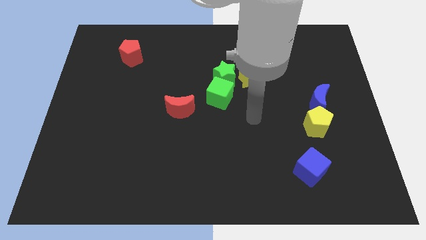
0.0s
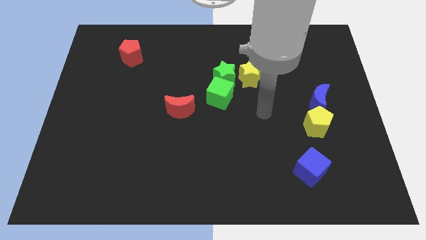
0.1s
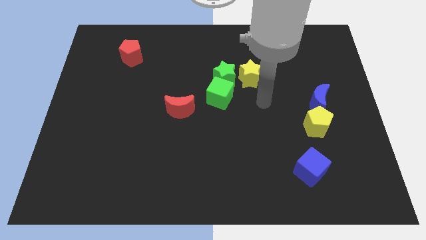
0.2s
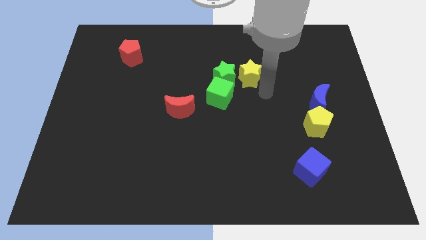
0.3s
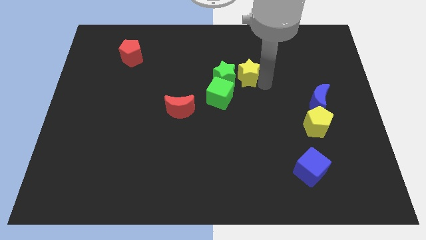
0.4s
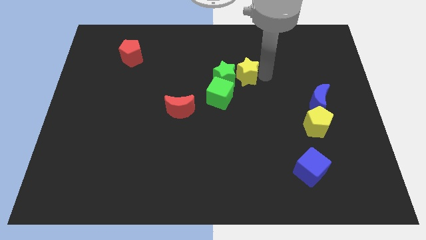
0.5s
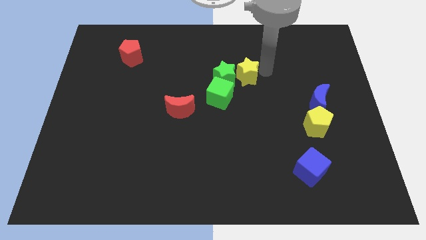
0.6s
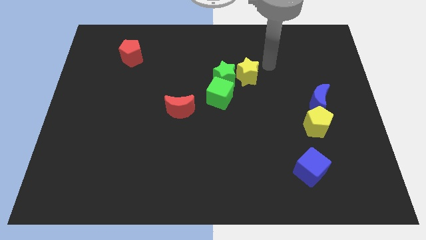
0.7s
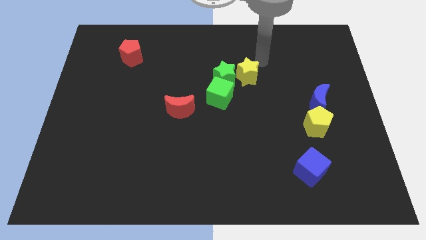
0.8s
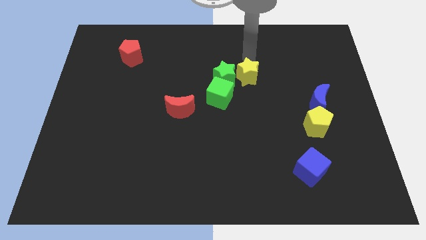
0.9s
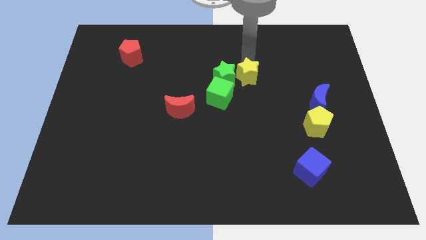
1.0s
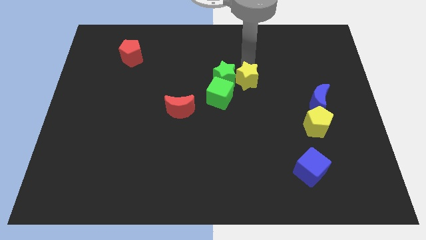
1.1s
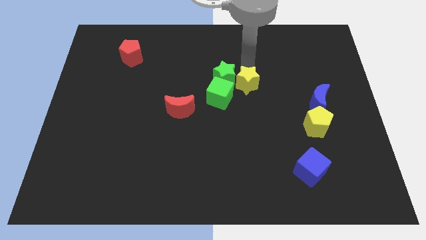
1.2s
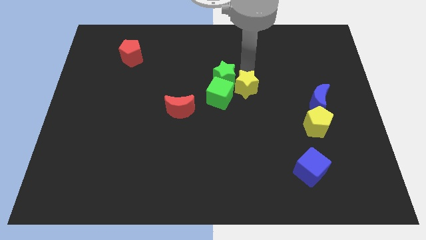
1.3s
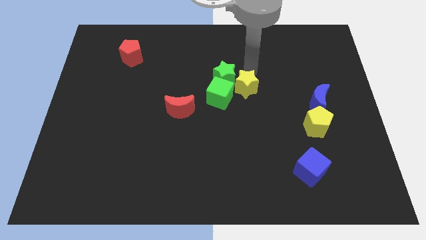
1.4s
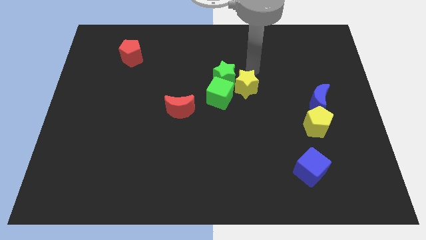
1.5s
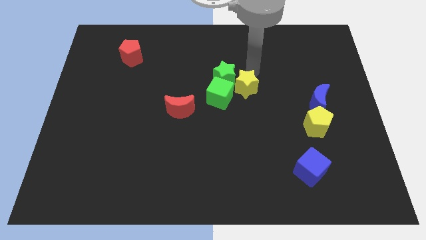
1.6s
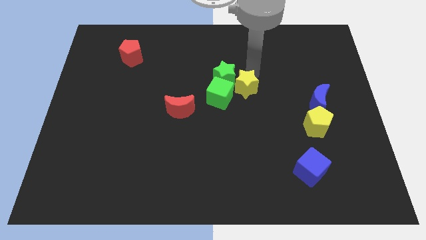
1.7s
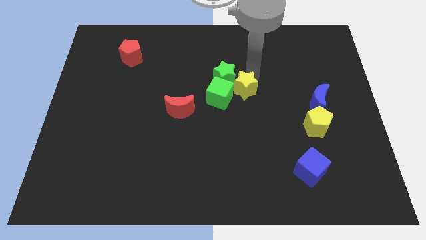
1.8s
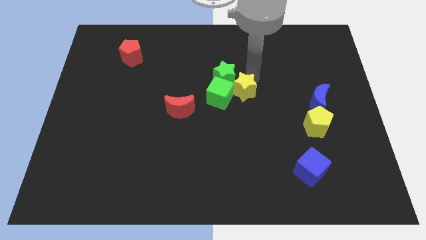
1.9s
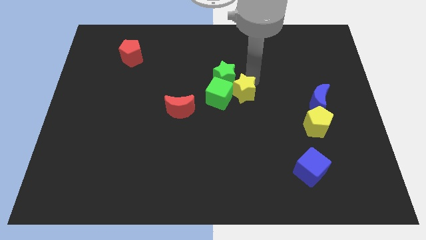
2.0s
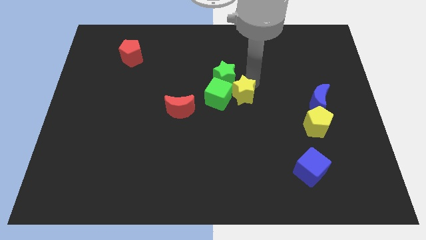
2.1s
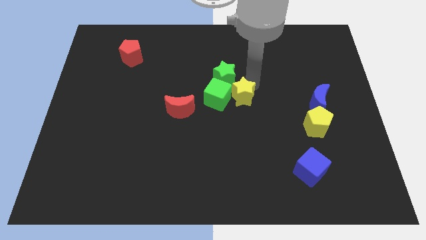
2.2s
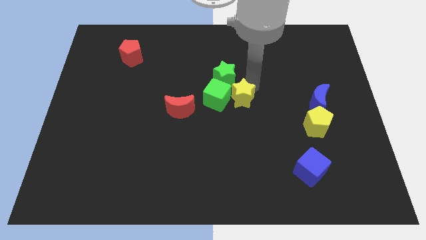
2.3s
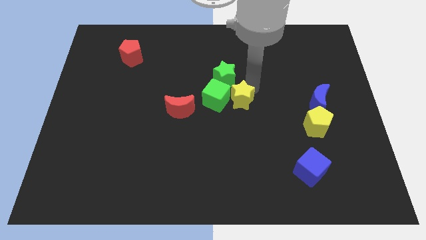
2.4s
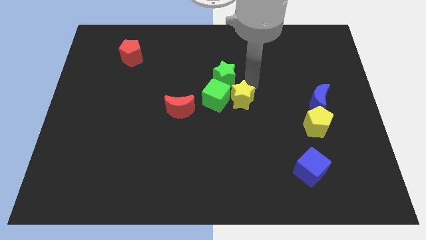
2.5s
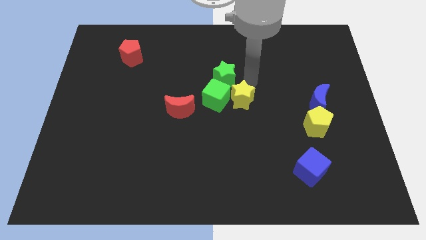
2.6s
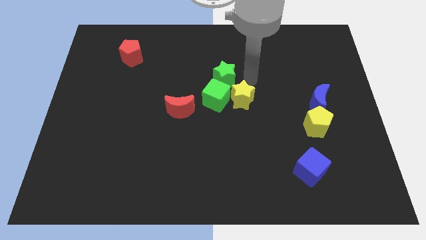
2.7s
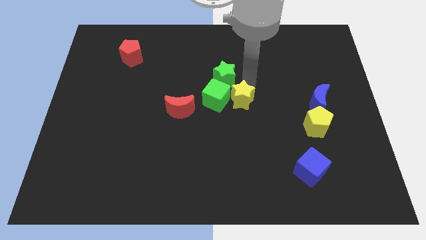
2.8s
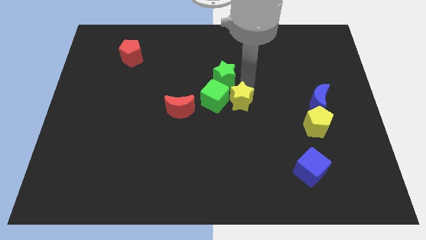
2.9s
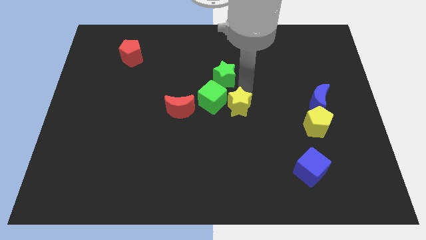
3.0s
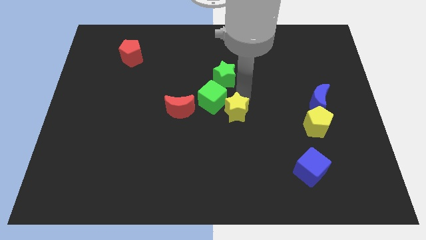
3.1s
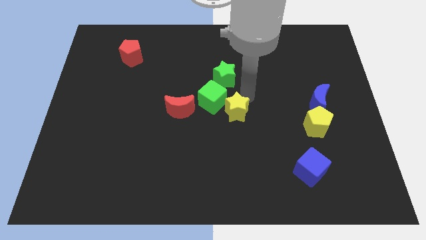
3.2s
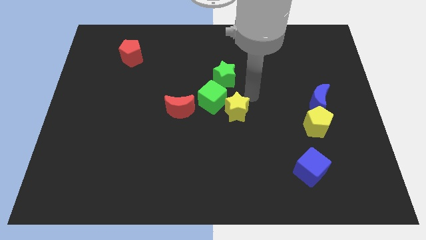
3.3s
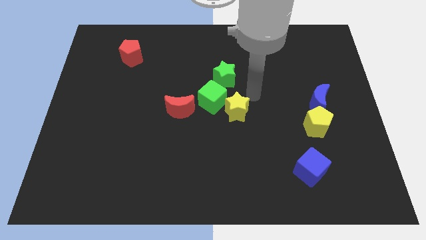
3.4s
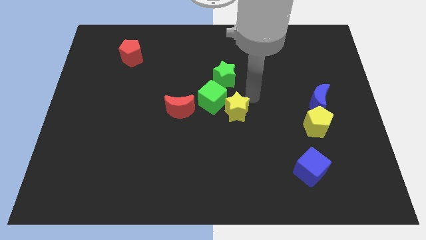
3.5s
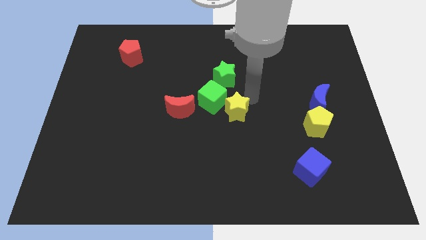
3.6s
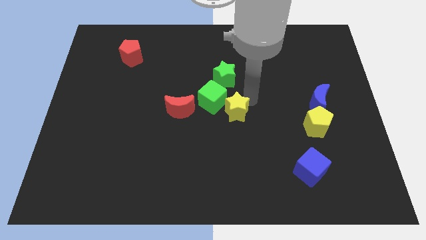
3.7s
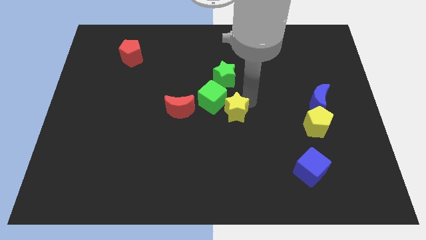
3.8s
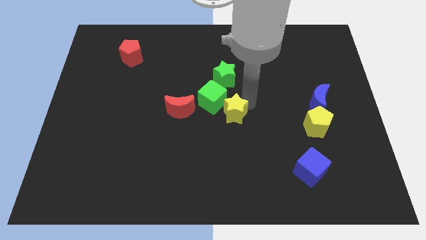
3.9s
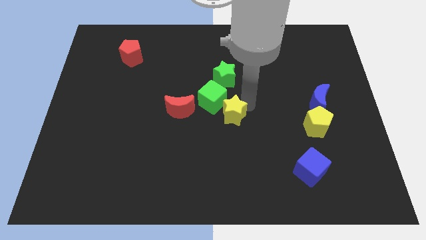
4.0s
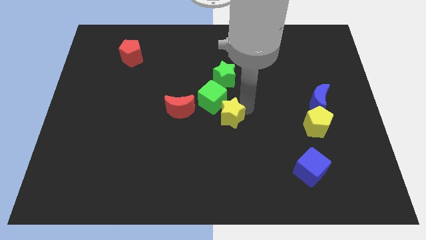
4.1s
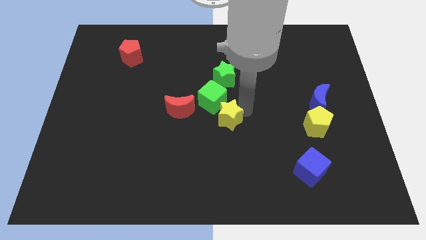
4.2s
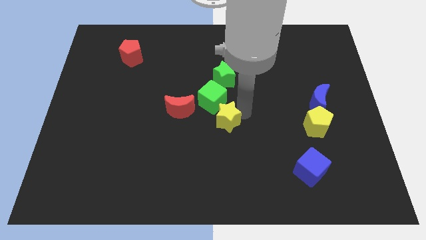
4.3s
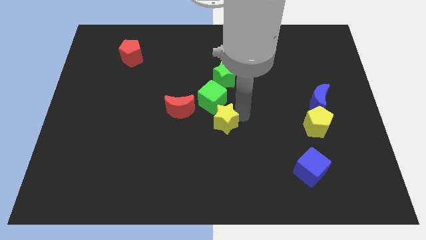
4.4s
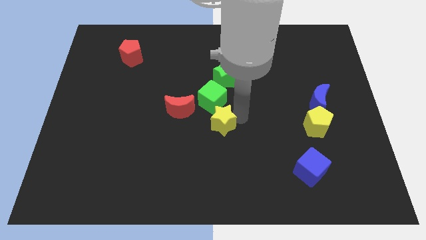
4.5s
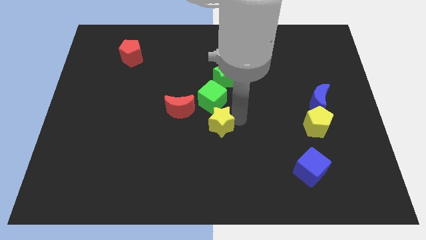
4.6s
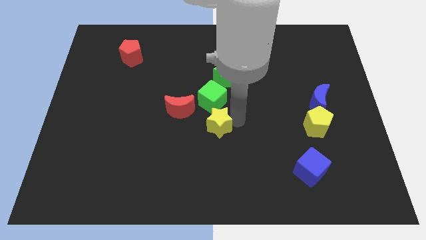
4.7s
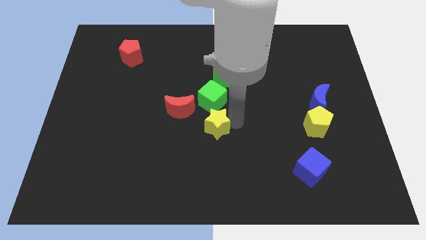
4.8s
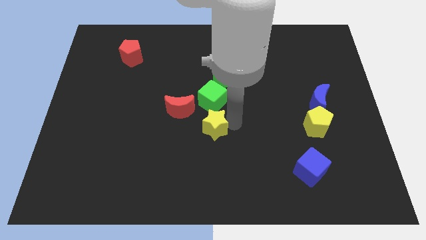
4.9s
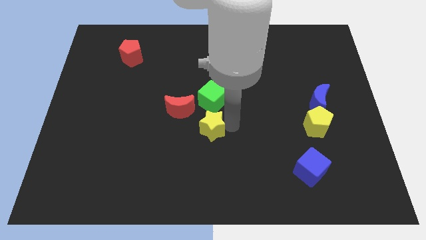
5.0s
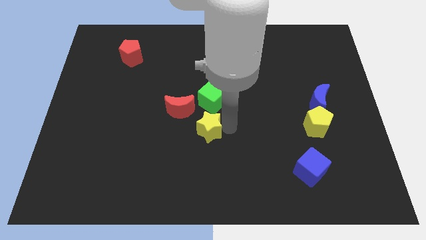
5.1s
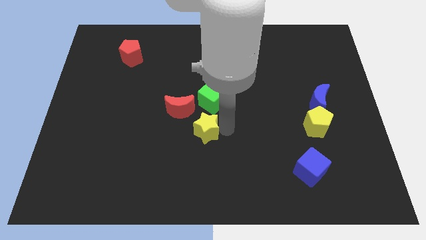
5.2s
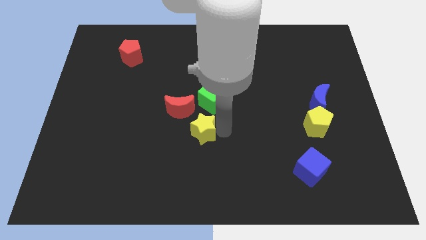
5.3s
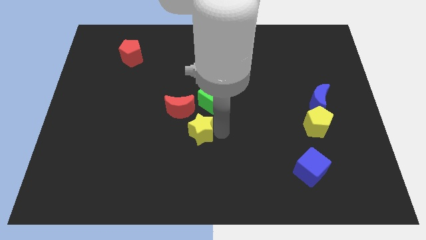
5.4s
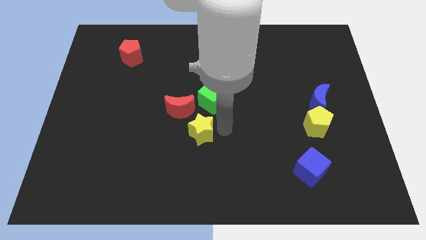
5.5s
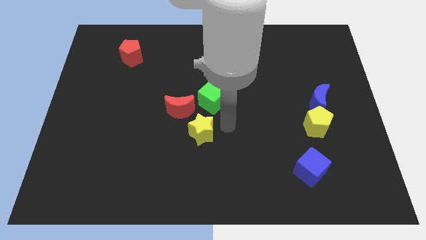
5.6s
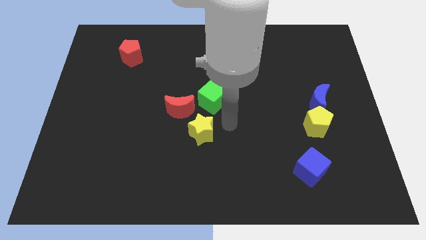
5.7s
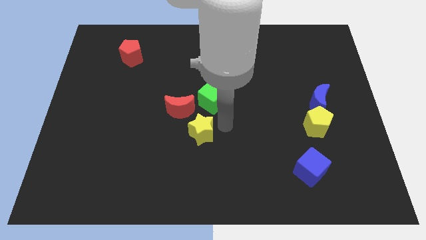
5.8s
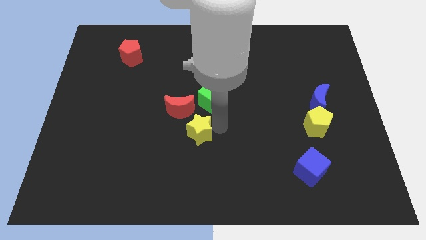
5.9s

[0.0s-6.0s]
move the yellow star downwards and to the left

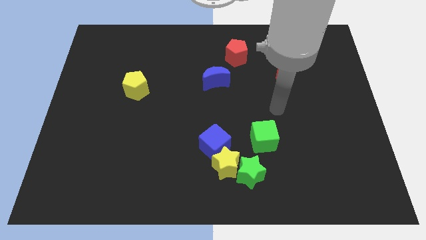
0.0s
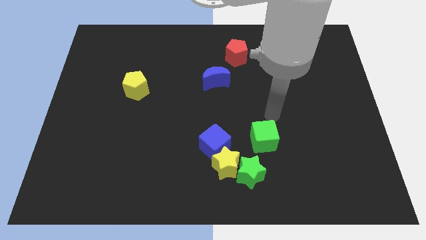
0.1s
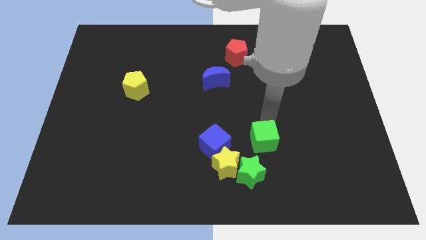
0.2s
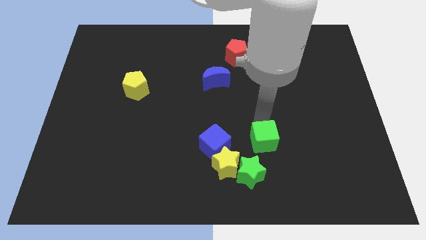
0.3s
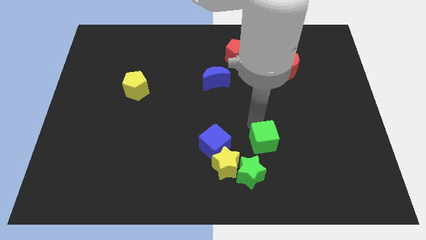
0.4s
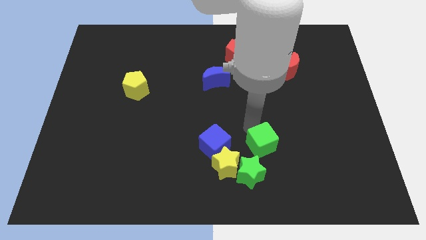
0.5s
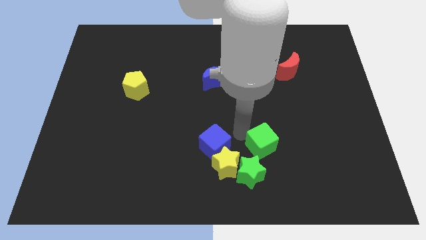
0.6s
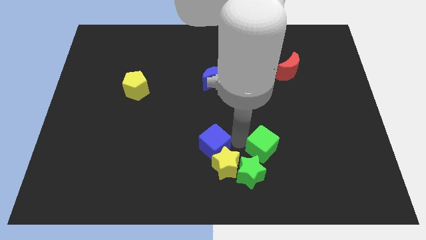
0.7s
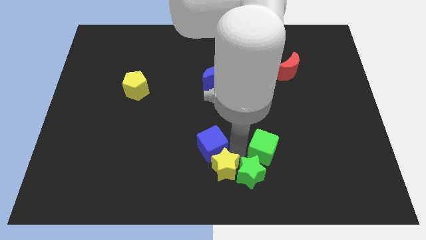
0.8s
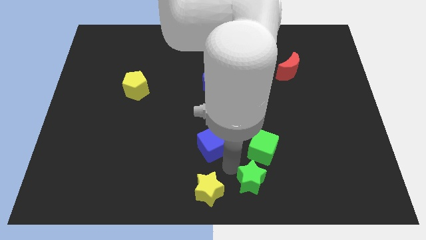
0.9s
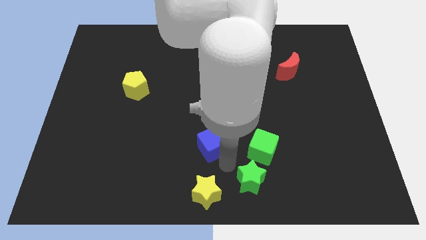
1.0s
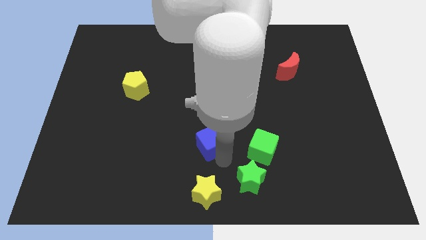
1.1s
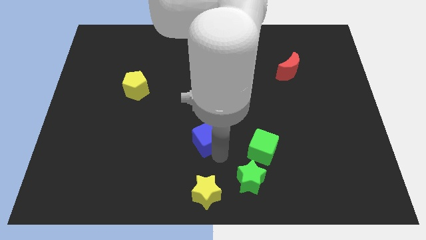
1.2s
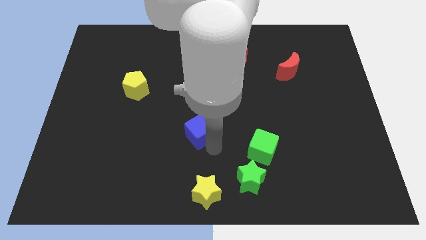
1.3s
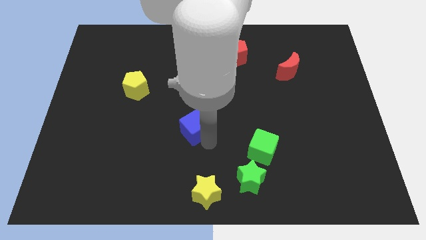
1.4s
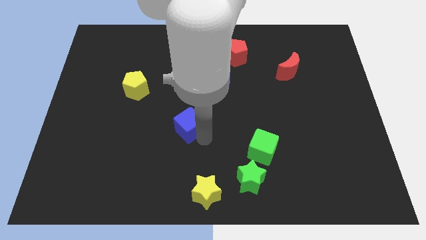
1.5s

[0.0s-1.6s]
slightly push the blue cube diagonally up and left

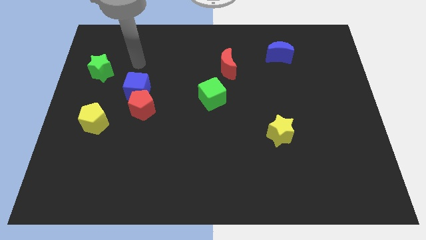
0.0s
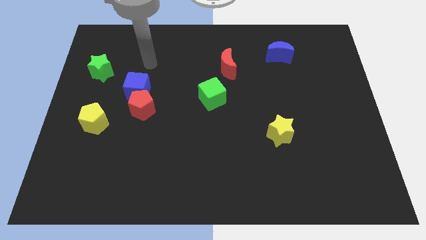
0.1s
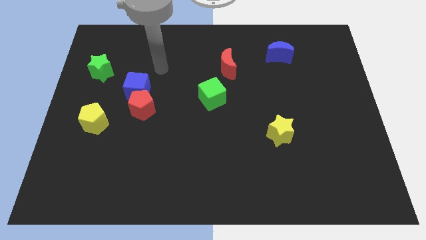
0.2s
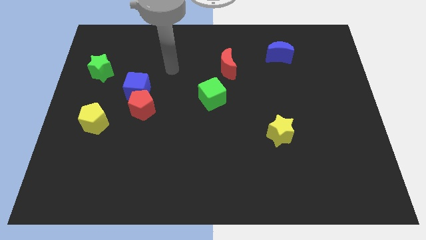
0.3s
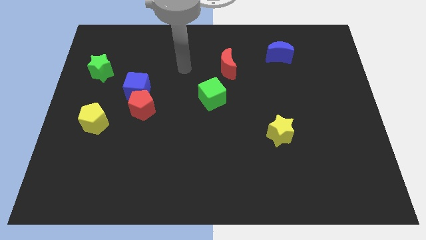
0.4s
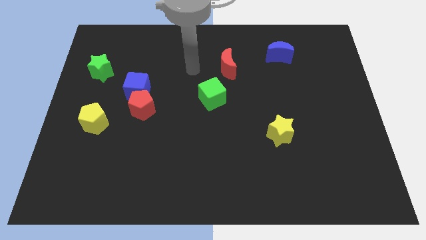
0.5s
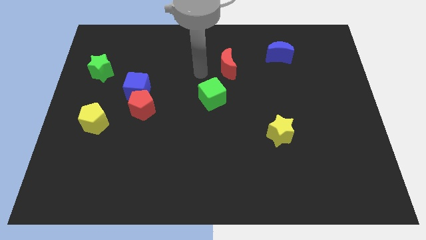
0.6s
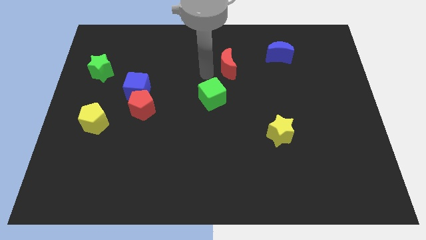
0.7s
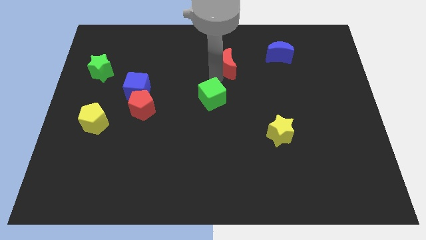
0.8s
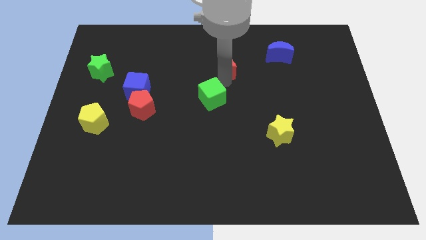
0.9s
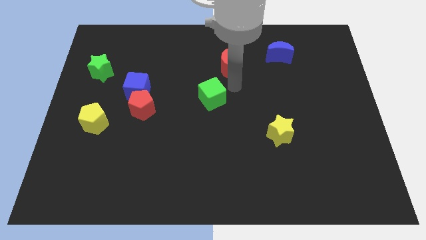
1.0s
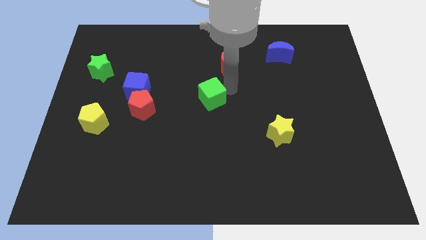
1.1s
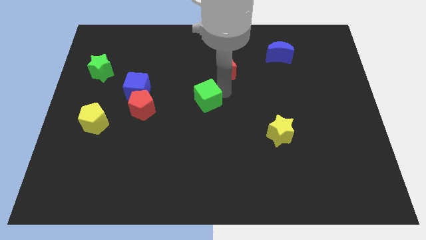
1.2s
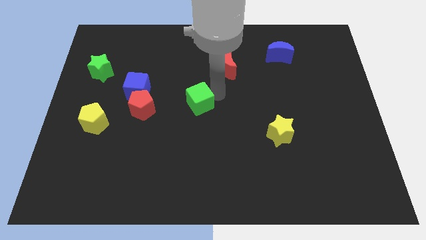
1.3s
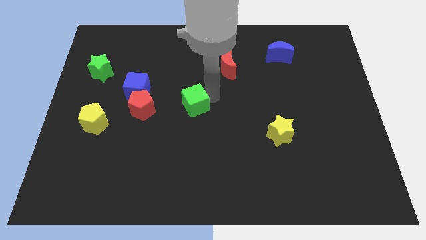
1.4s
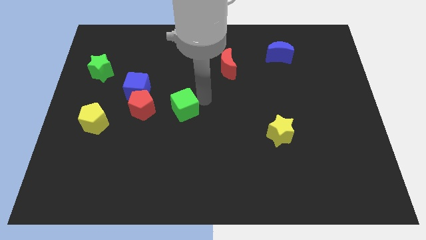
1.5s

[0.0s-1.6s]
slightly slide the green cube downwards and to the left diagonally
